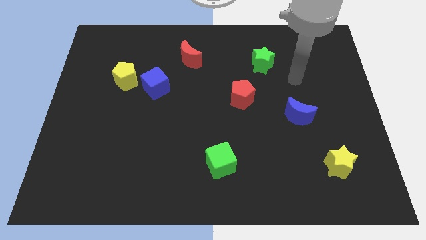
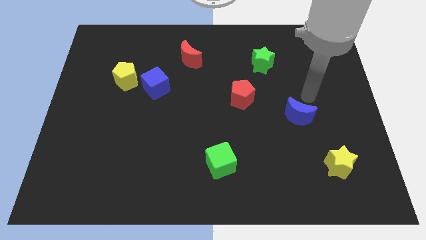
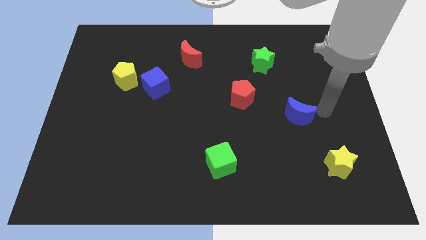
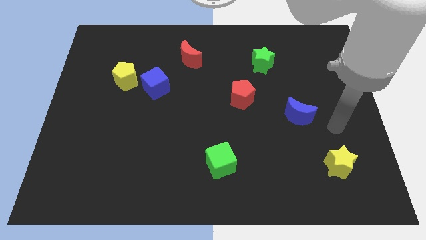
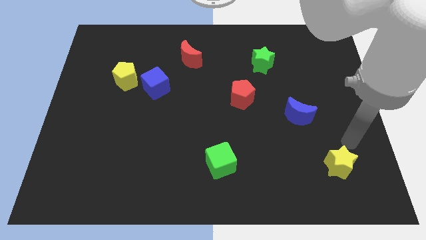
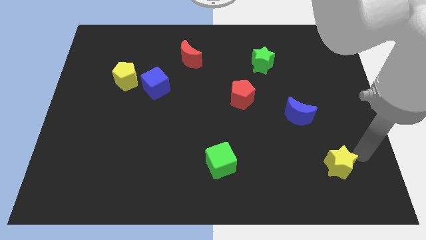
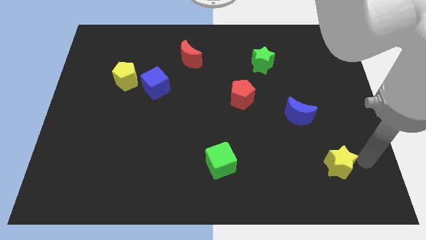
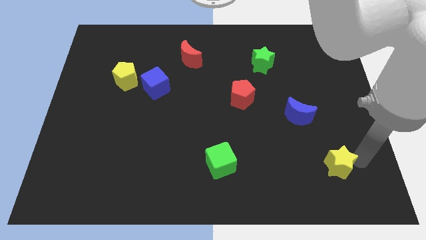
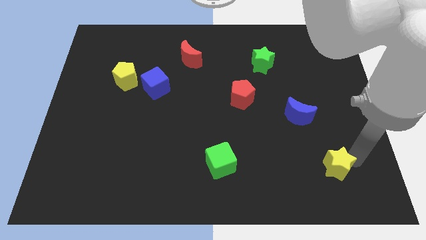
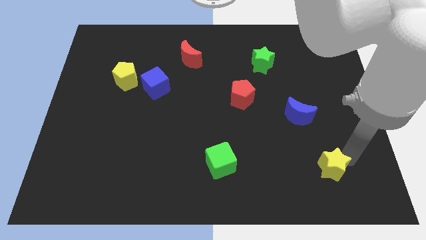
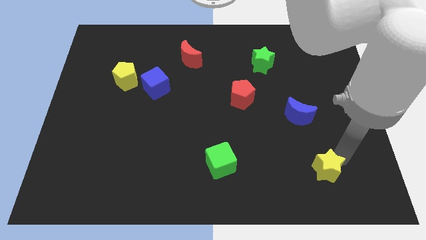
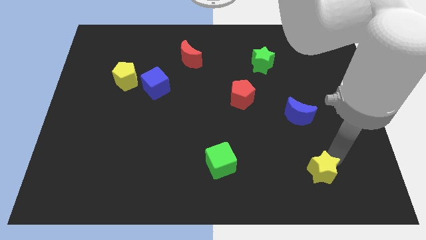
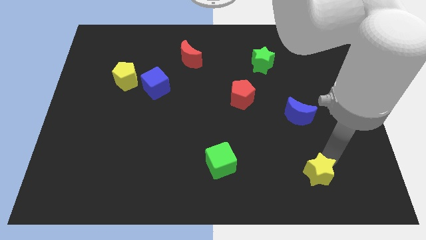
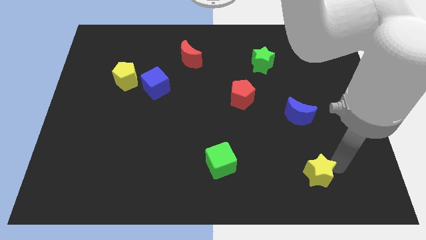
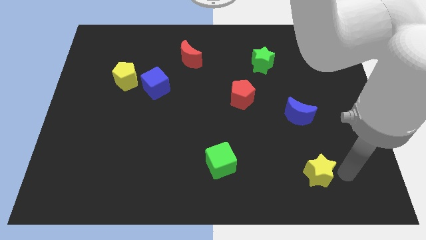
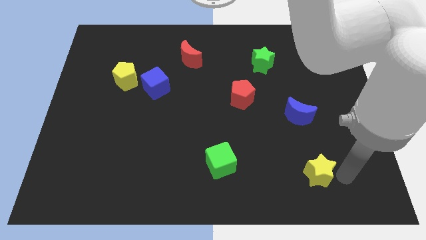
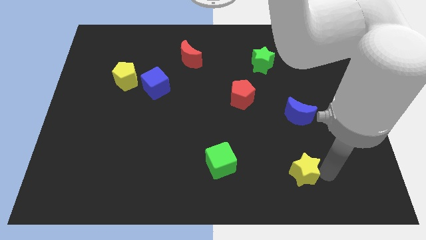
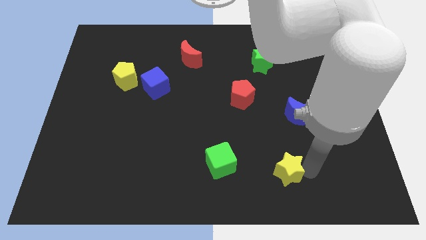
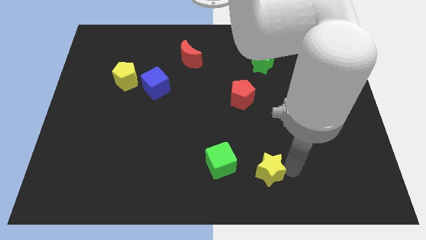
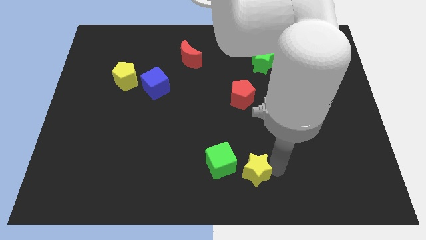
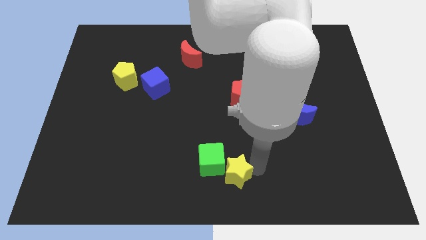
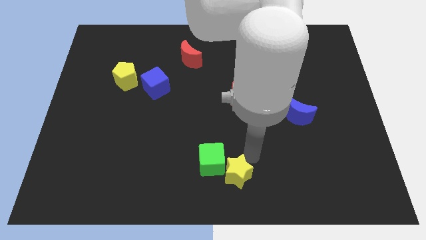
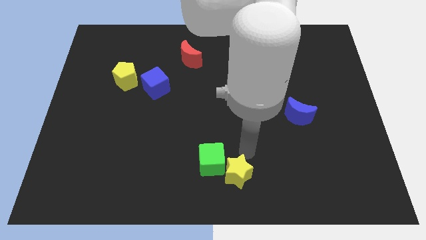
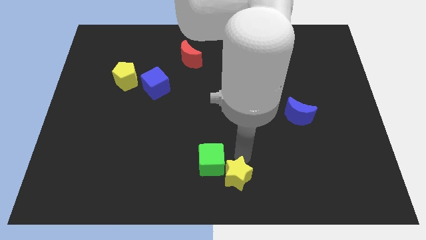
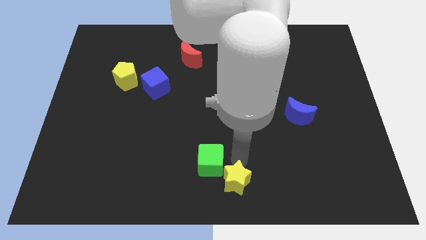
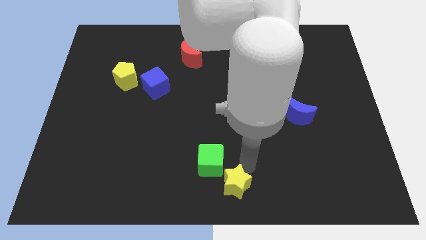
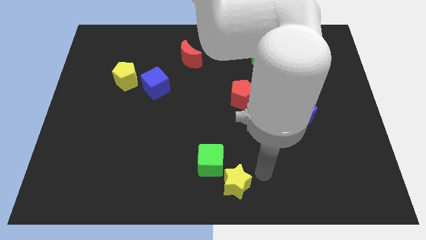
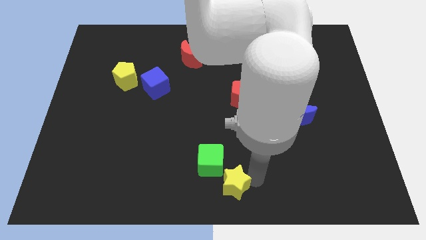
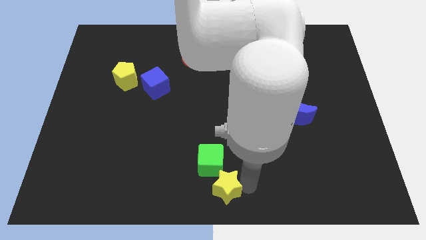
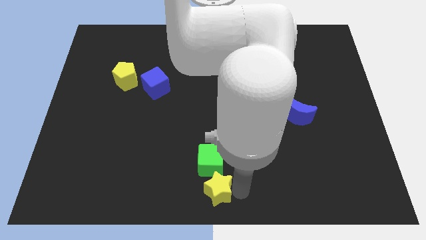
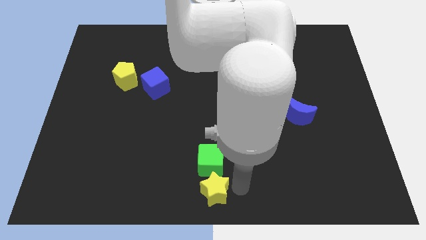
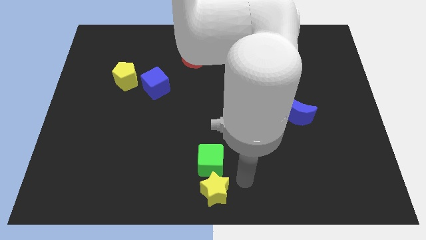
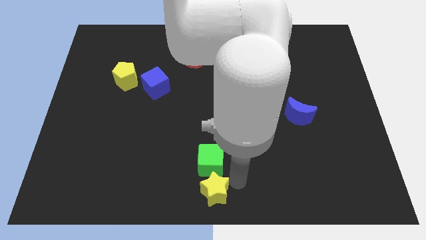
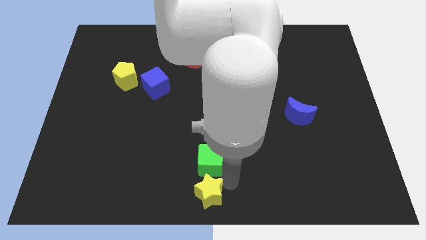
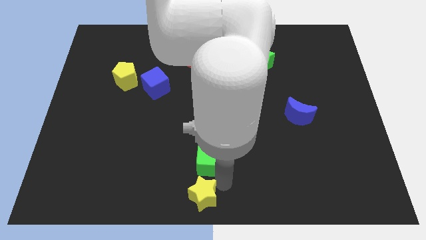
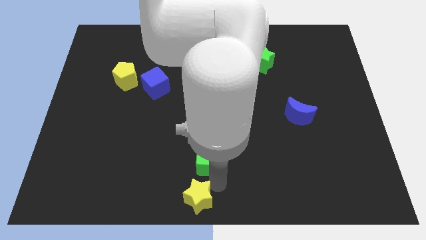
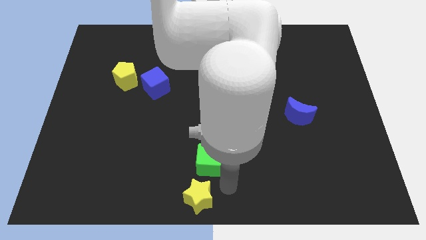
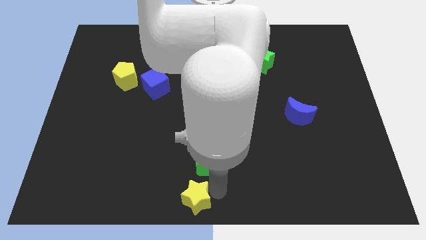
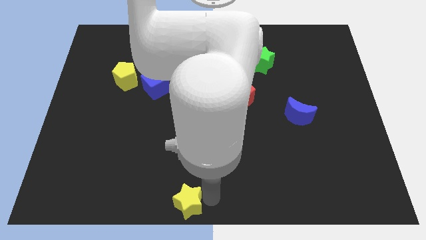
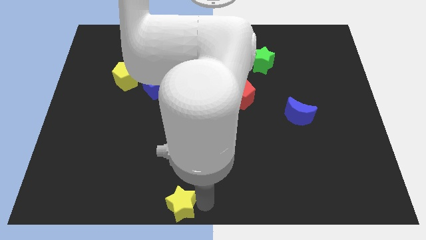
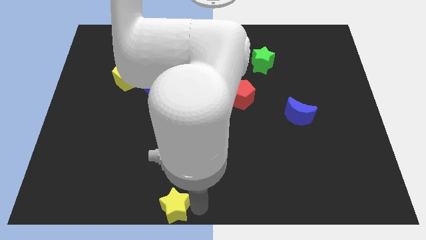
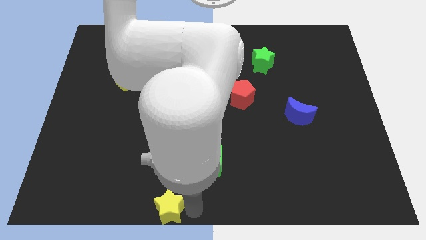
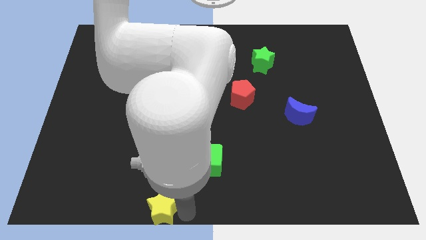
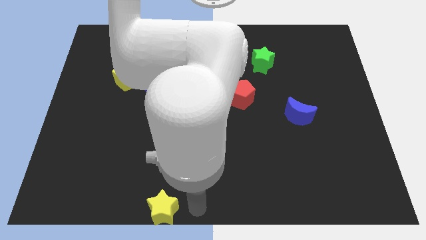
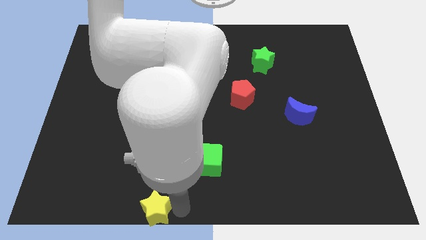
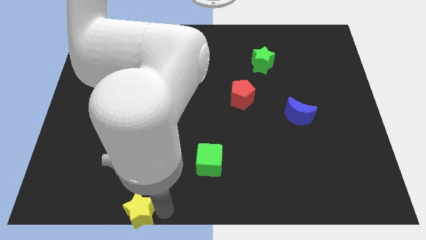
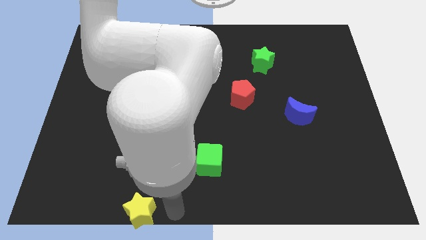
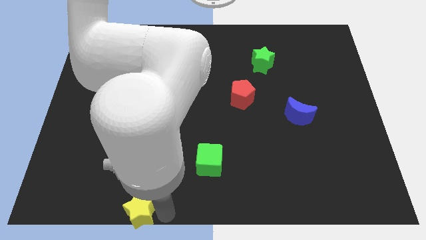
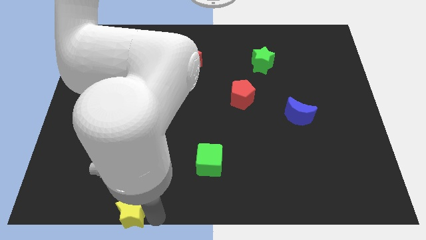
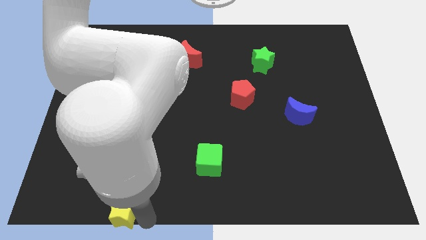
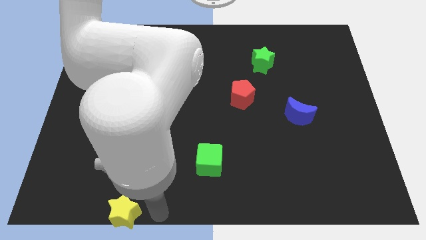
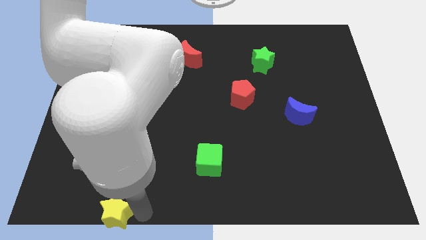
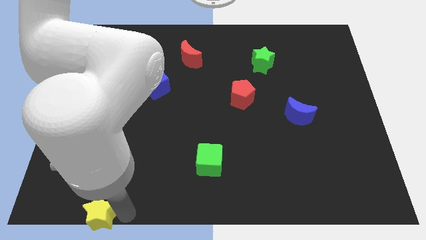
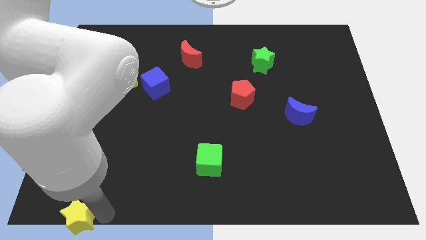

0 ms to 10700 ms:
push the yellow star to the bottom left corner

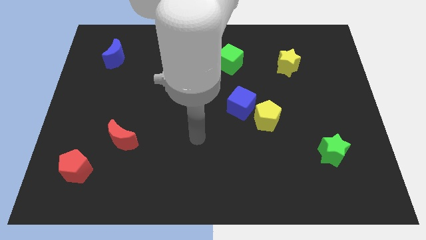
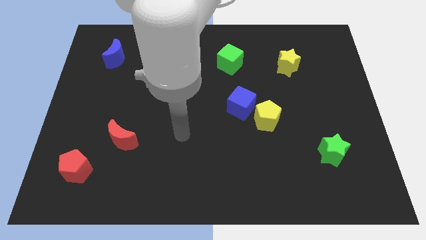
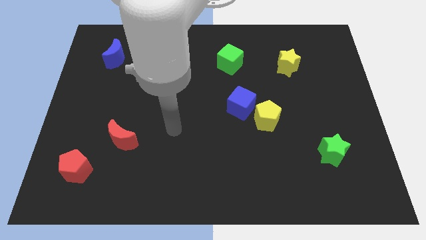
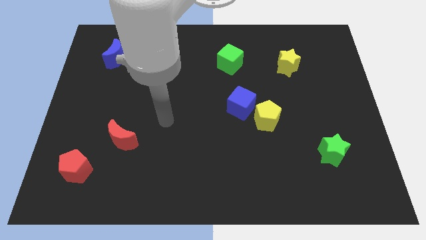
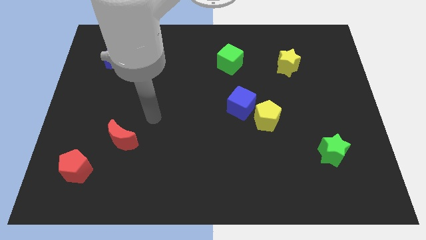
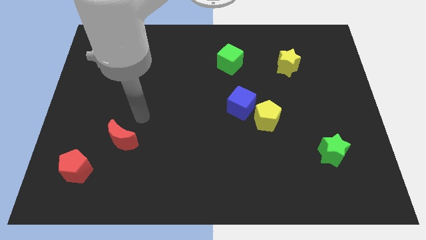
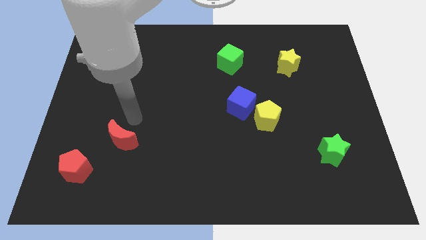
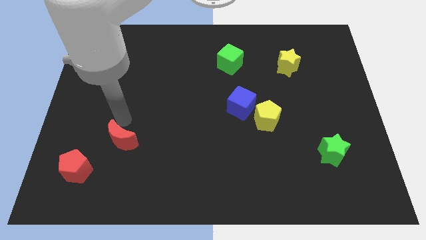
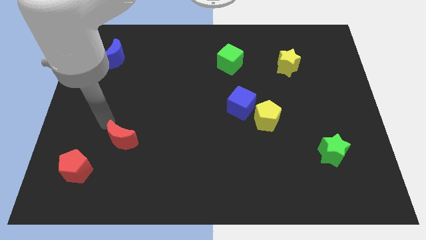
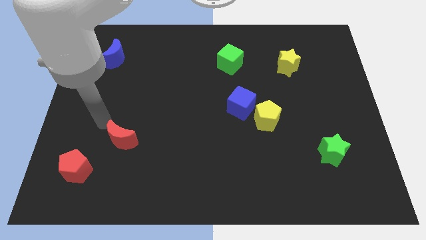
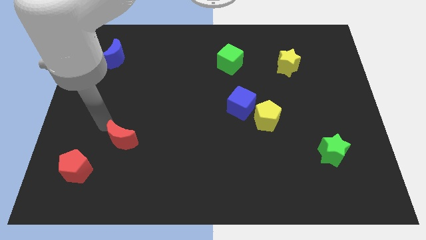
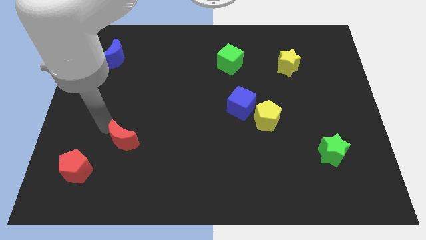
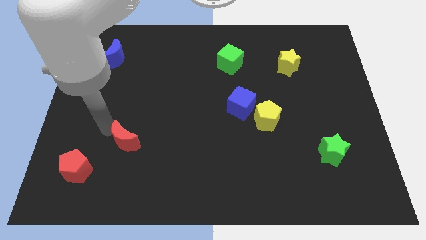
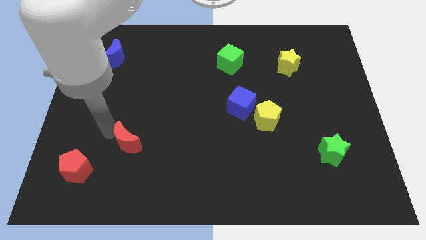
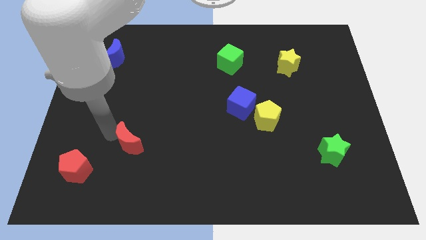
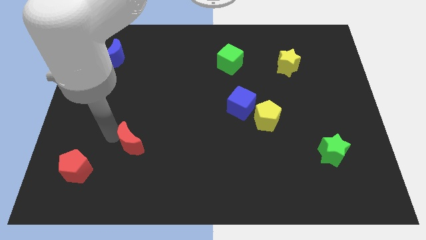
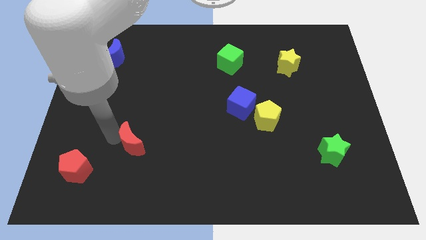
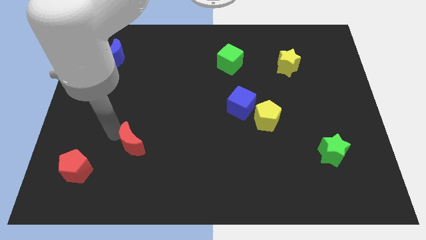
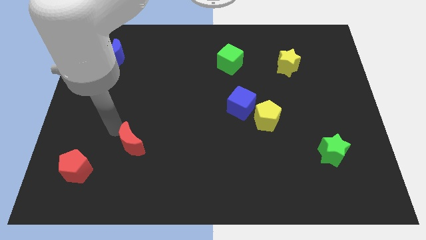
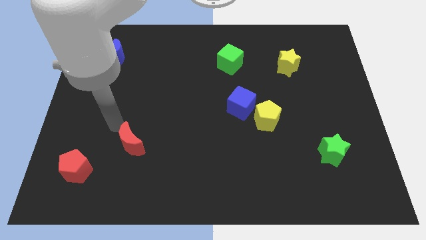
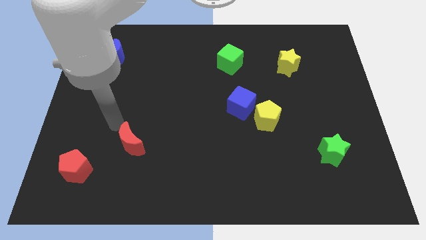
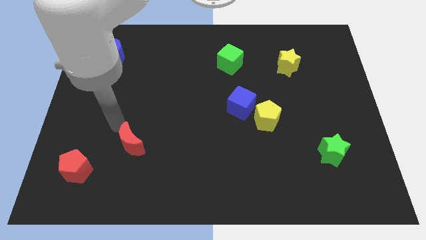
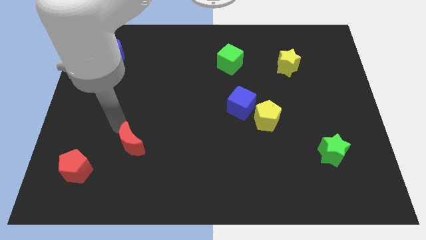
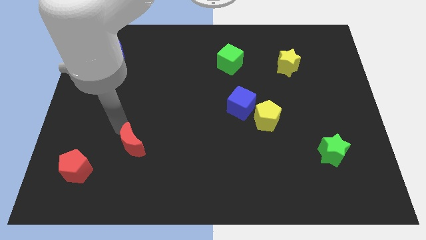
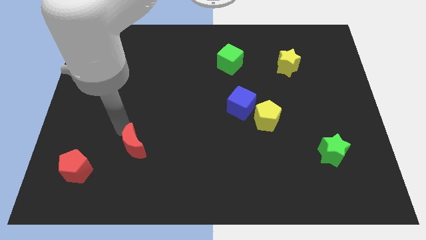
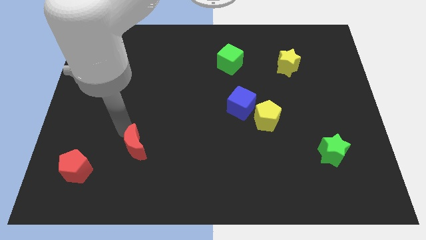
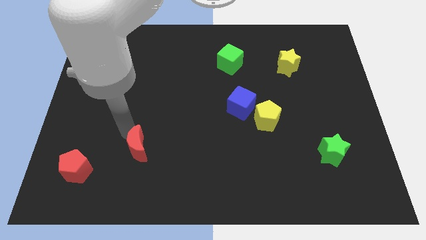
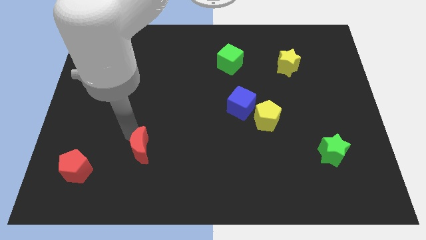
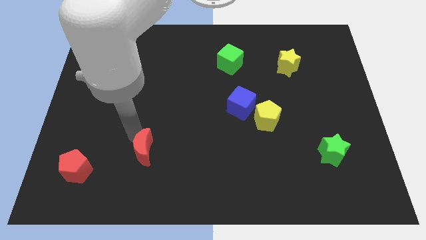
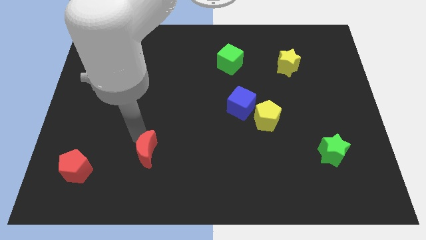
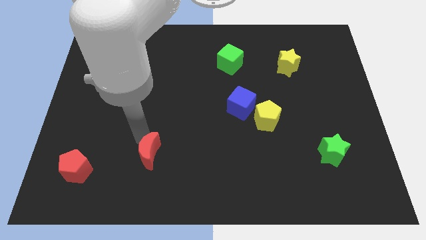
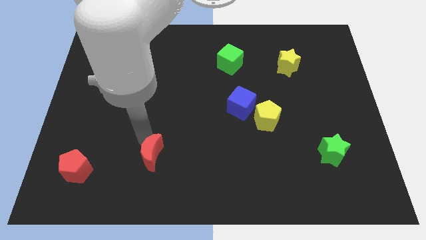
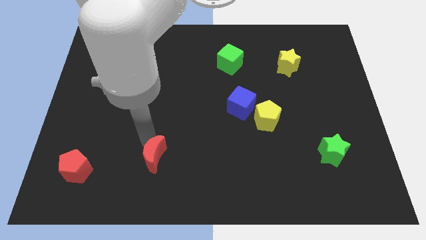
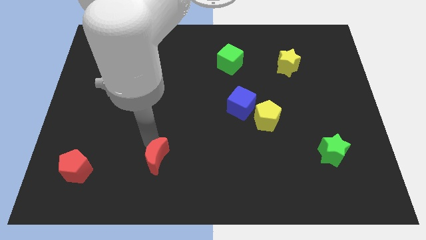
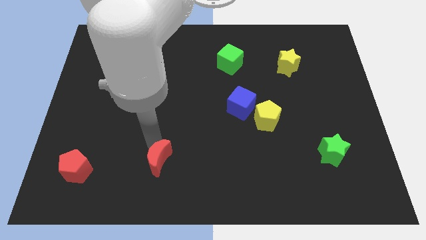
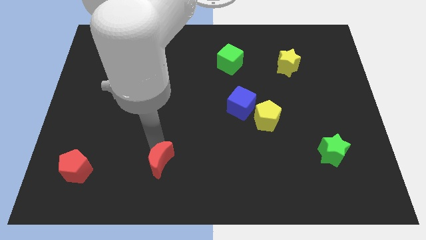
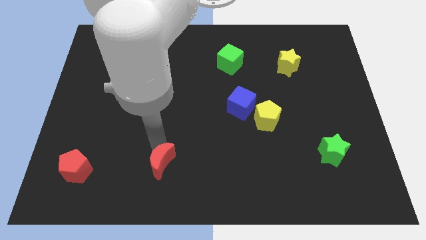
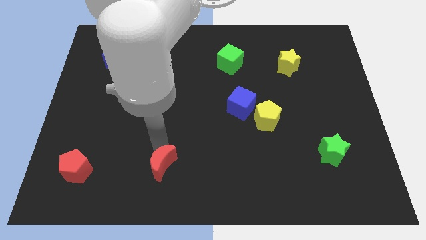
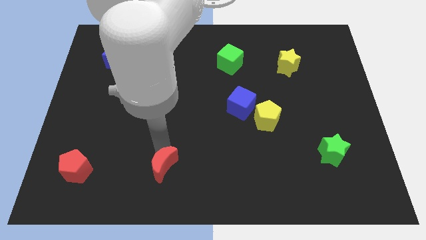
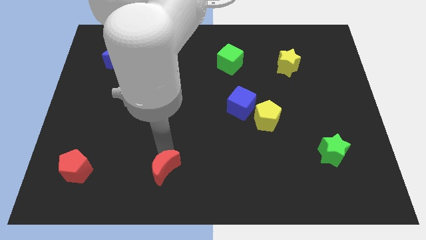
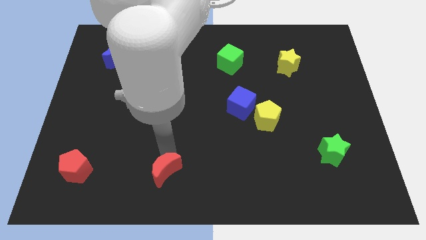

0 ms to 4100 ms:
push the red moon to the bottom side
